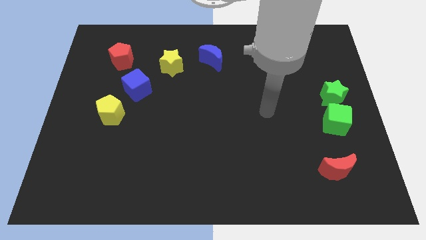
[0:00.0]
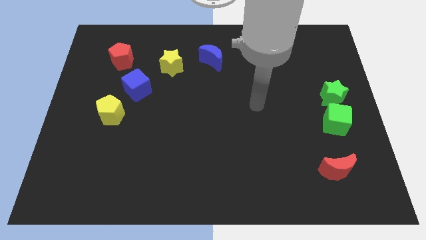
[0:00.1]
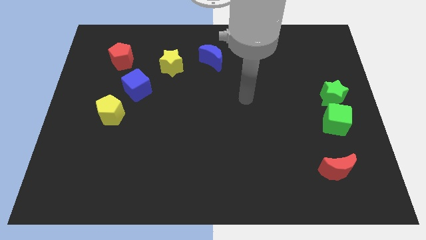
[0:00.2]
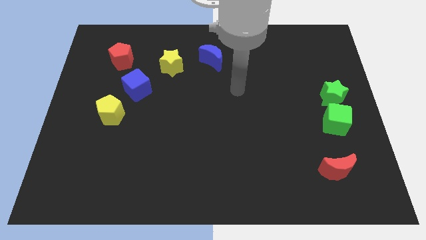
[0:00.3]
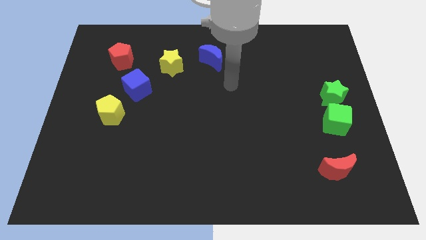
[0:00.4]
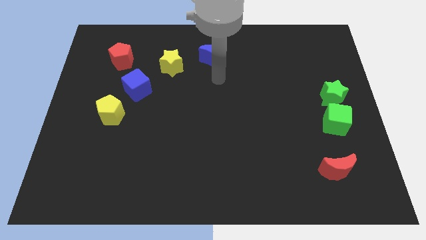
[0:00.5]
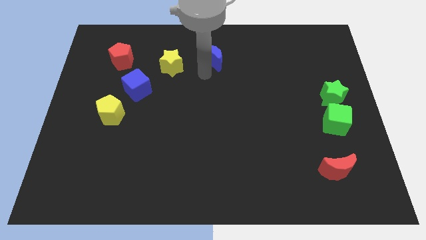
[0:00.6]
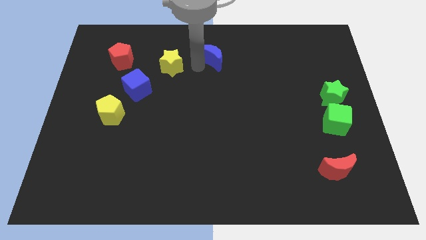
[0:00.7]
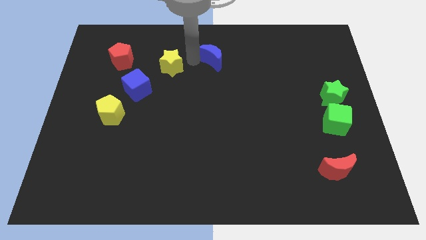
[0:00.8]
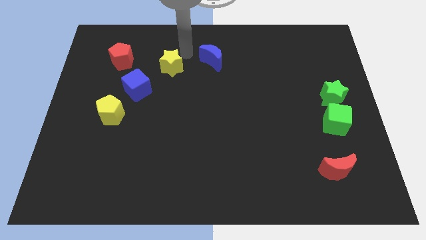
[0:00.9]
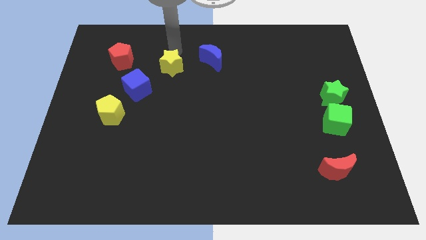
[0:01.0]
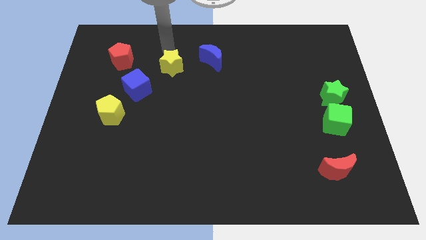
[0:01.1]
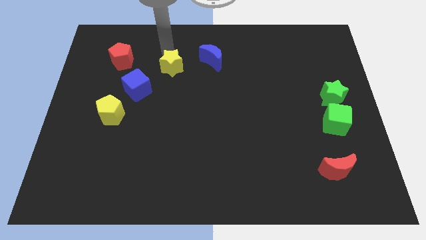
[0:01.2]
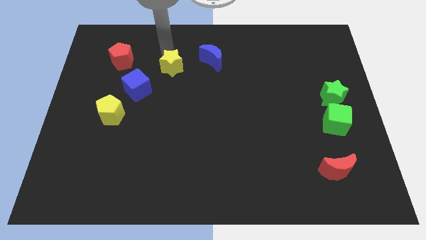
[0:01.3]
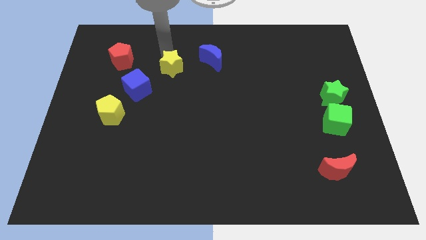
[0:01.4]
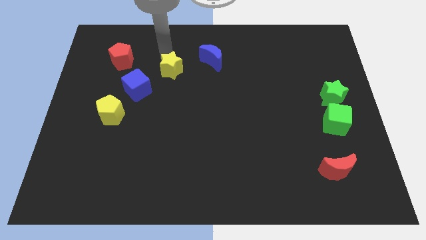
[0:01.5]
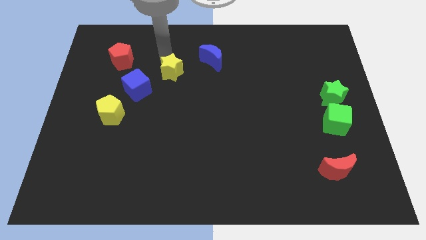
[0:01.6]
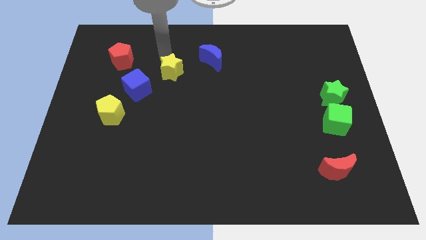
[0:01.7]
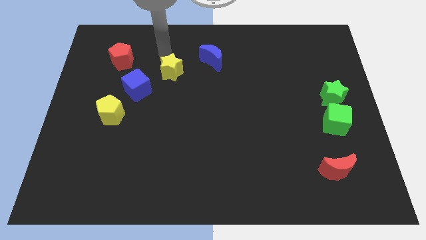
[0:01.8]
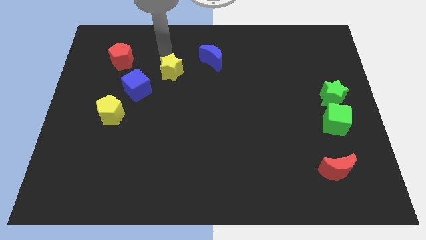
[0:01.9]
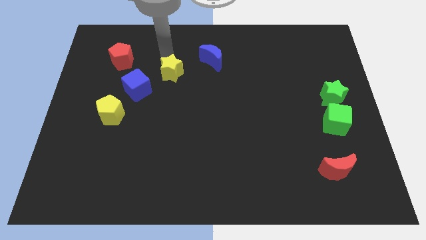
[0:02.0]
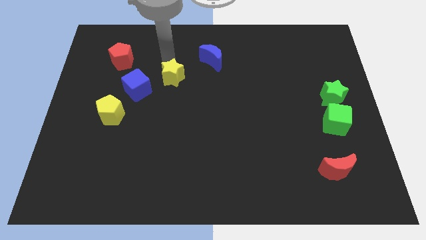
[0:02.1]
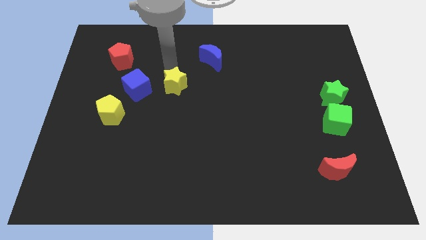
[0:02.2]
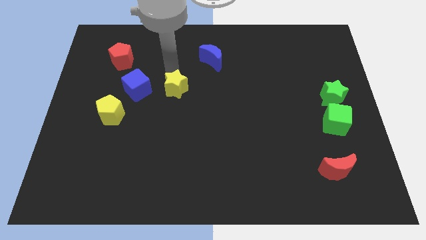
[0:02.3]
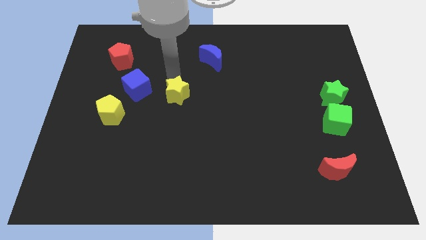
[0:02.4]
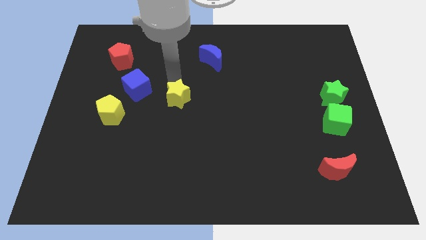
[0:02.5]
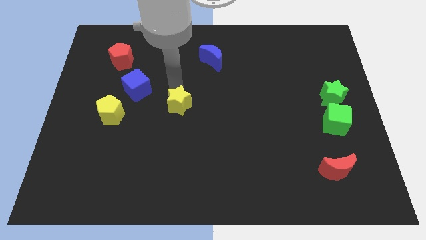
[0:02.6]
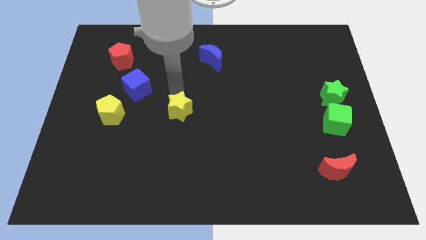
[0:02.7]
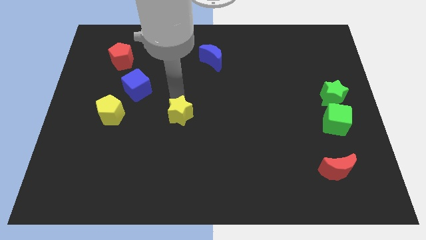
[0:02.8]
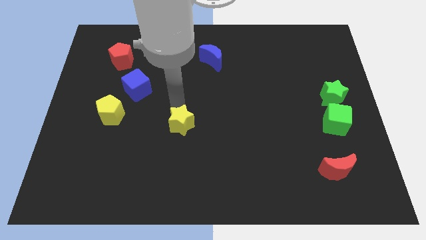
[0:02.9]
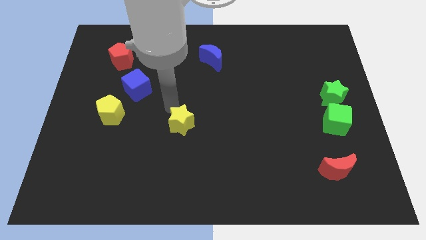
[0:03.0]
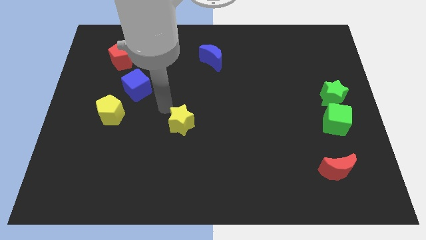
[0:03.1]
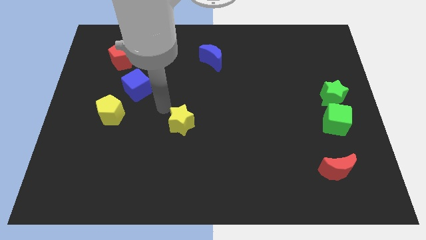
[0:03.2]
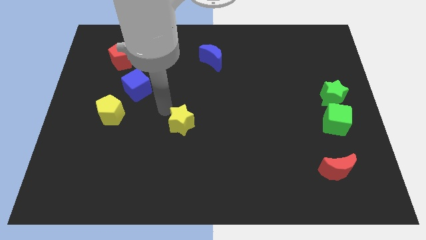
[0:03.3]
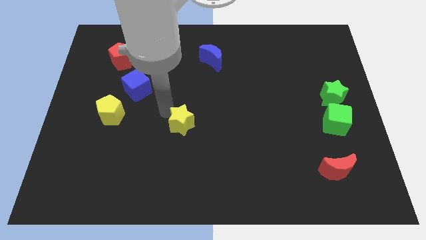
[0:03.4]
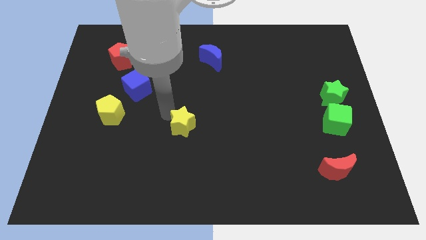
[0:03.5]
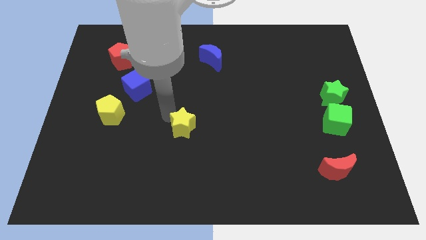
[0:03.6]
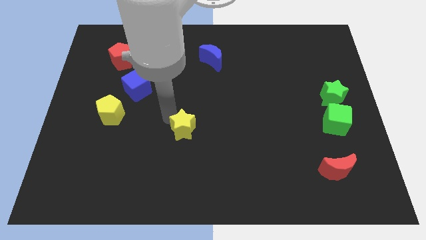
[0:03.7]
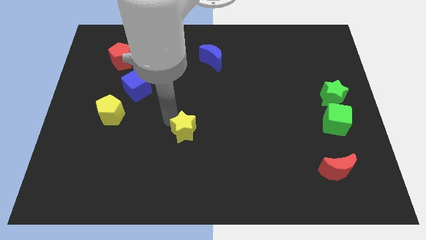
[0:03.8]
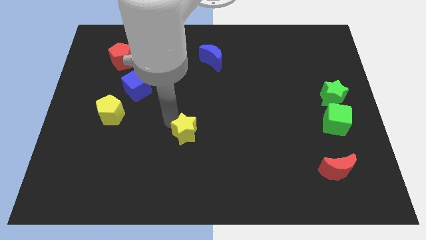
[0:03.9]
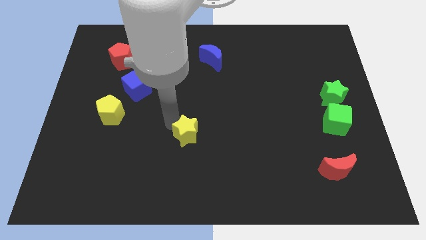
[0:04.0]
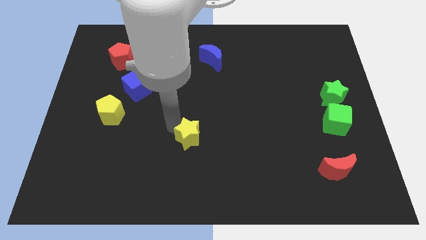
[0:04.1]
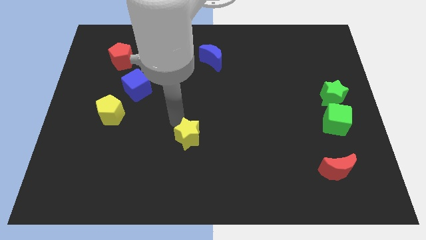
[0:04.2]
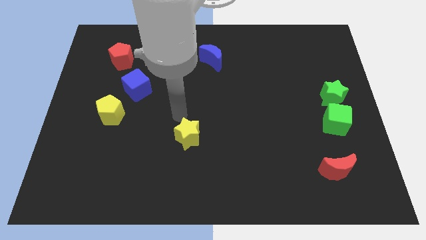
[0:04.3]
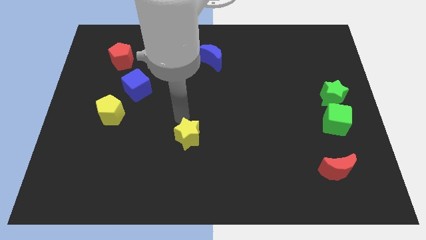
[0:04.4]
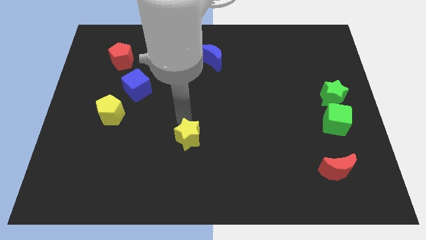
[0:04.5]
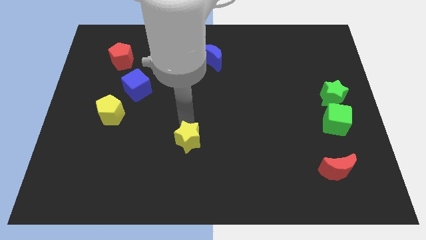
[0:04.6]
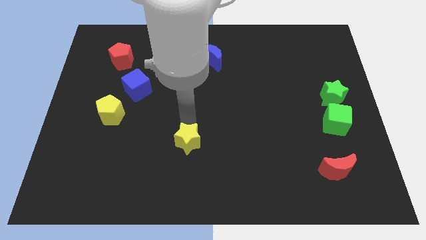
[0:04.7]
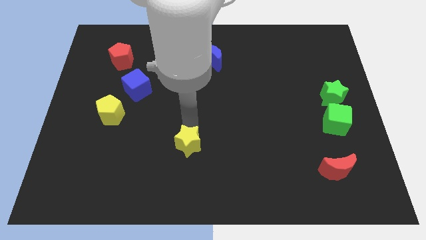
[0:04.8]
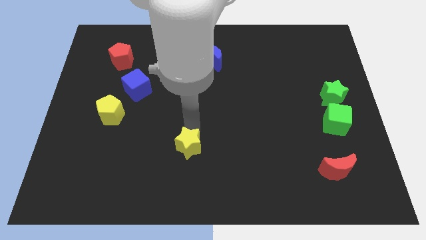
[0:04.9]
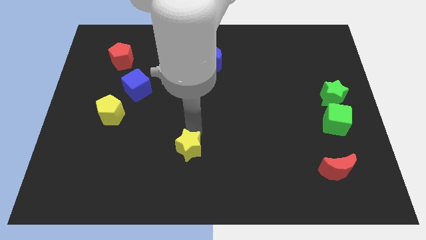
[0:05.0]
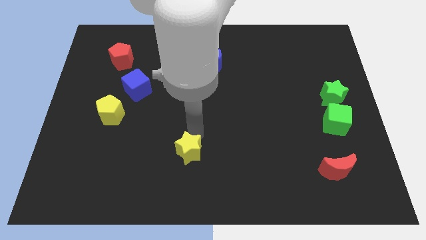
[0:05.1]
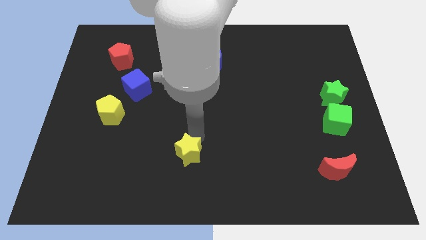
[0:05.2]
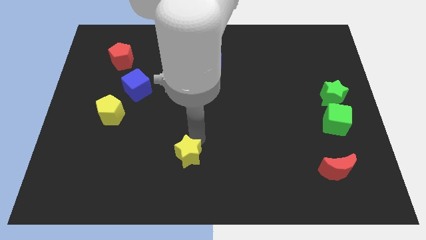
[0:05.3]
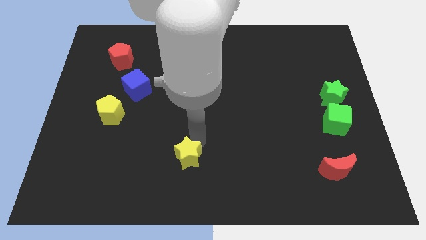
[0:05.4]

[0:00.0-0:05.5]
push the yellow star to the bottom side
